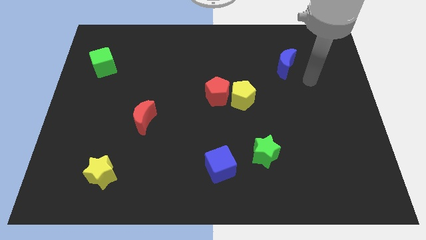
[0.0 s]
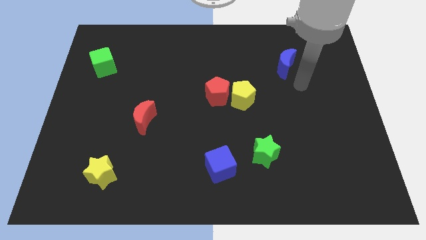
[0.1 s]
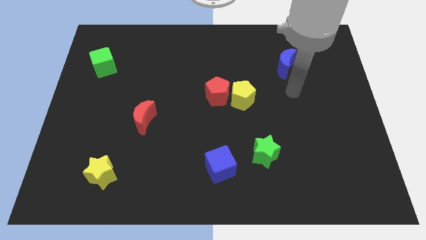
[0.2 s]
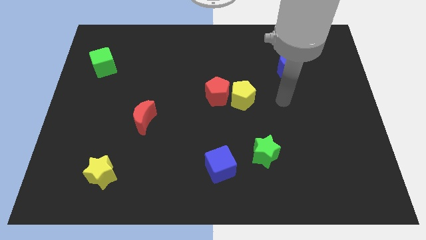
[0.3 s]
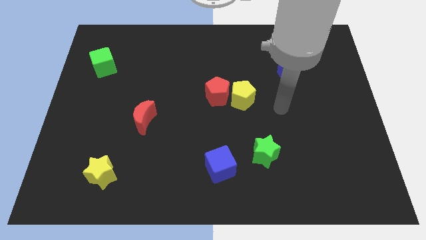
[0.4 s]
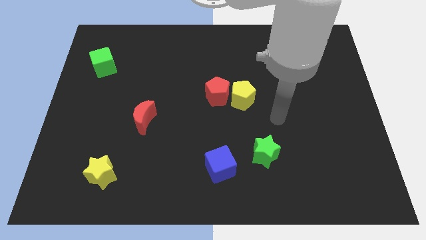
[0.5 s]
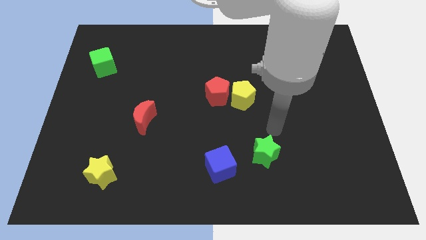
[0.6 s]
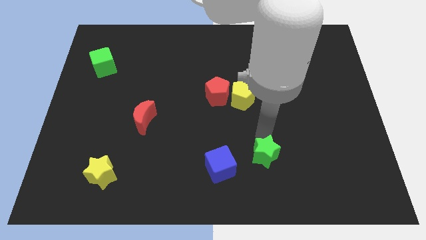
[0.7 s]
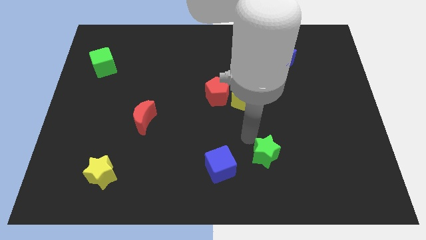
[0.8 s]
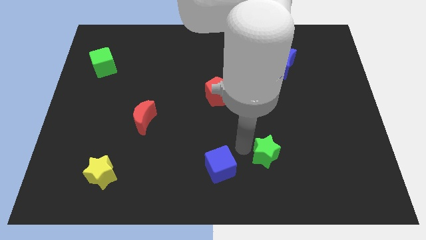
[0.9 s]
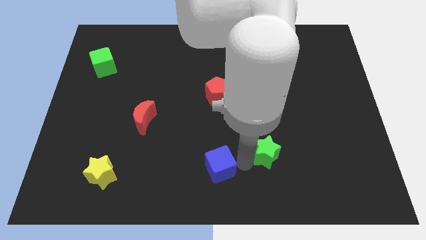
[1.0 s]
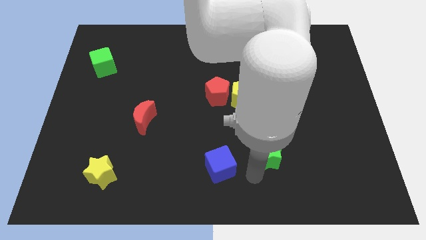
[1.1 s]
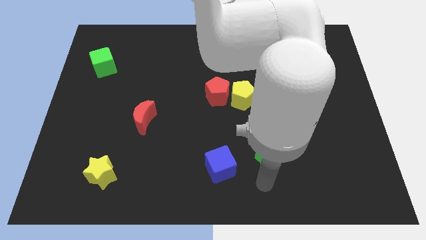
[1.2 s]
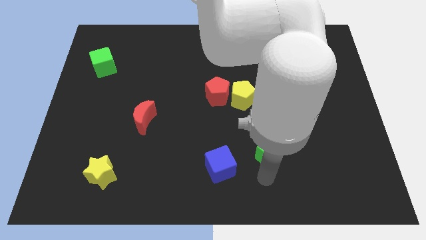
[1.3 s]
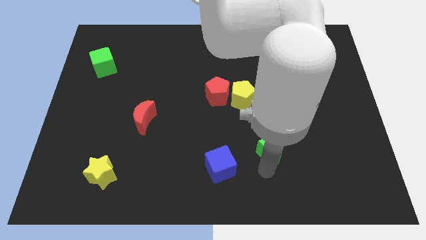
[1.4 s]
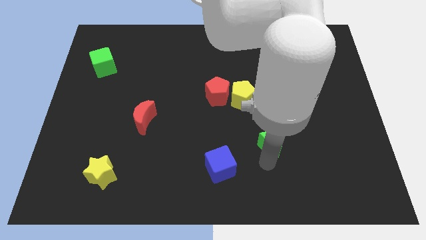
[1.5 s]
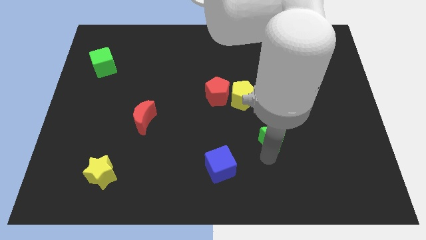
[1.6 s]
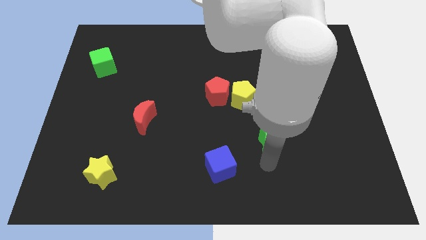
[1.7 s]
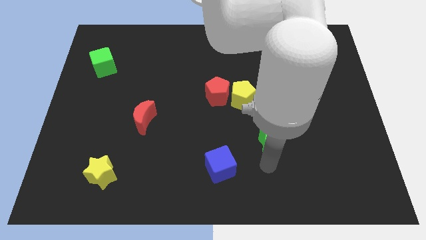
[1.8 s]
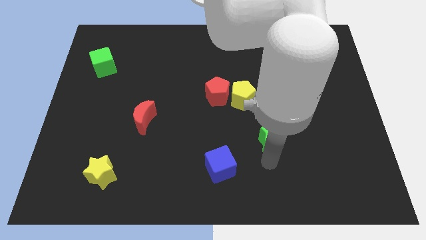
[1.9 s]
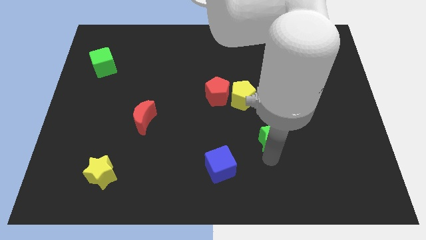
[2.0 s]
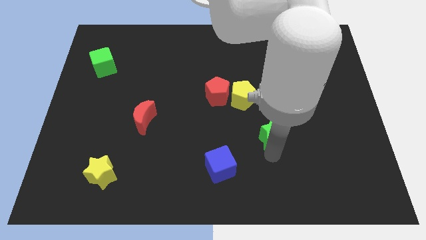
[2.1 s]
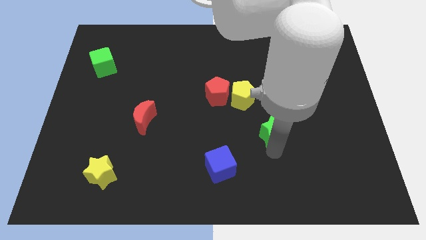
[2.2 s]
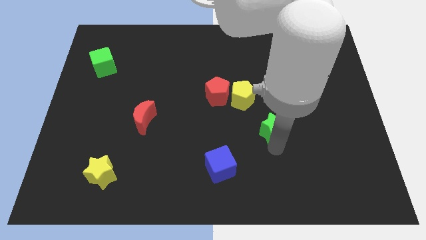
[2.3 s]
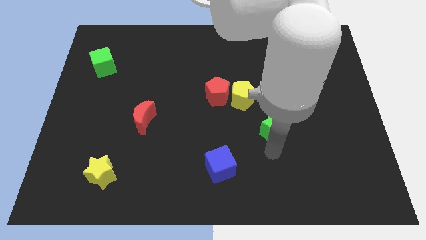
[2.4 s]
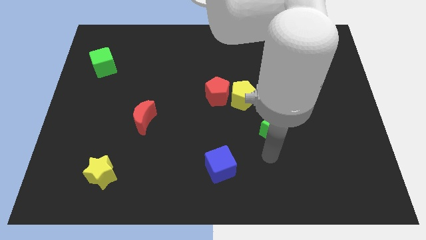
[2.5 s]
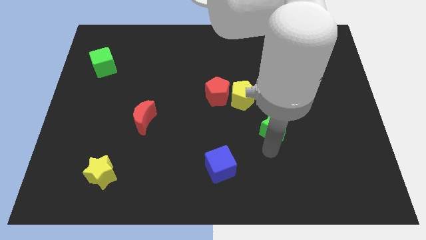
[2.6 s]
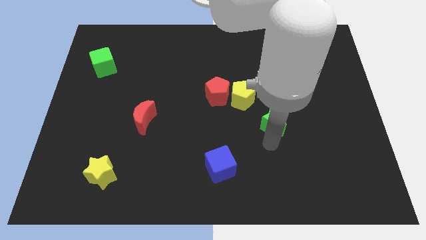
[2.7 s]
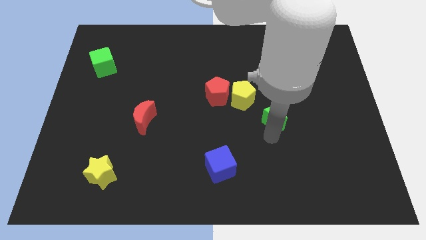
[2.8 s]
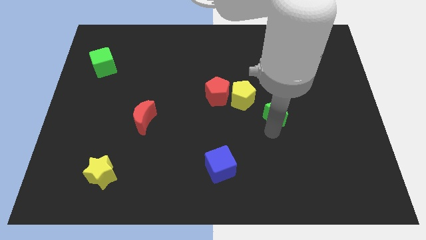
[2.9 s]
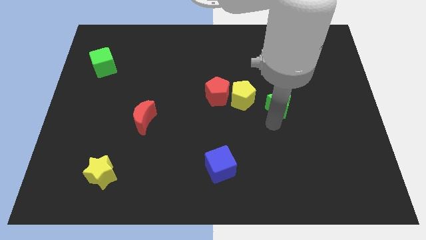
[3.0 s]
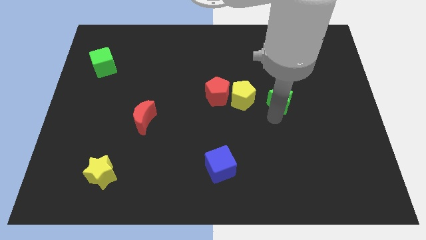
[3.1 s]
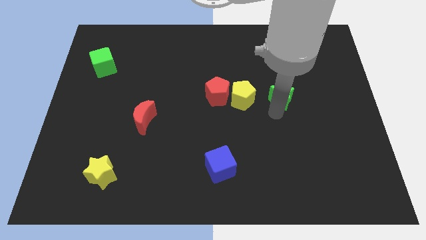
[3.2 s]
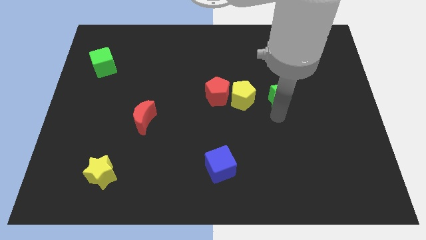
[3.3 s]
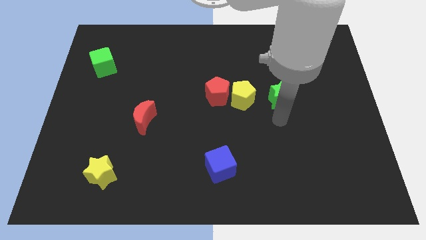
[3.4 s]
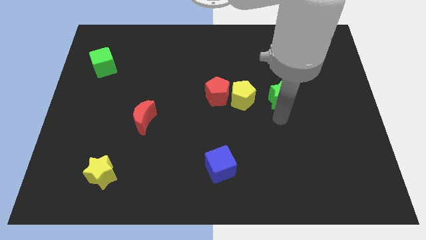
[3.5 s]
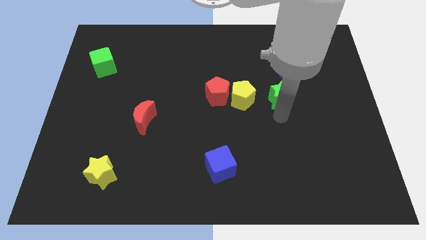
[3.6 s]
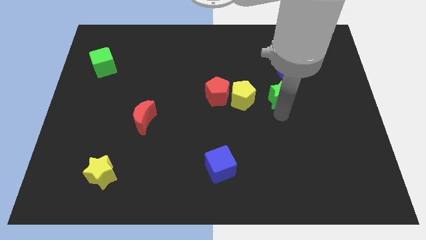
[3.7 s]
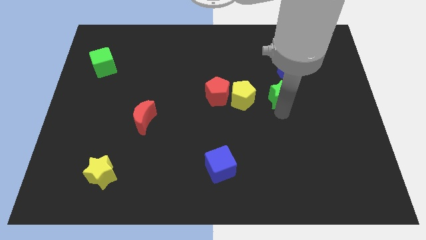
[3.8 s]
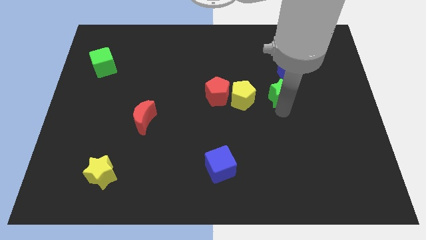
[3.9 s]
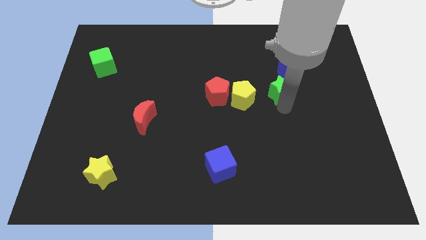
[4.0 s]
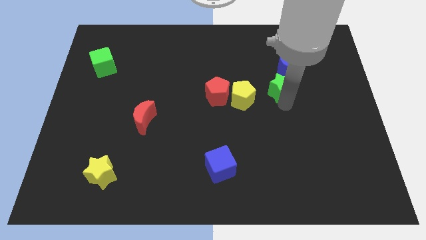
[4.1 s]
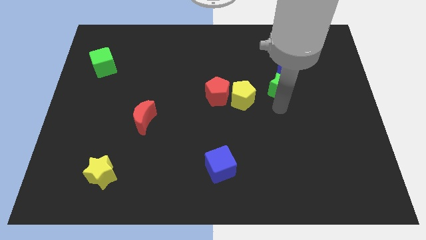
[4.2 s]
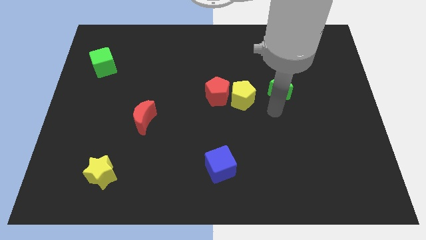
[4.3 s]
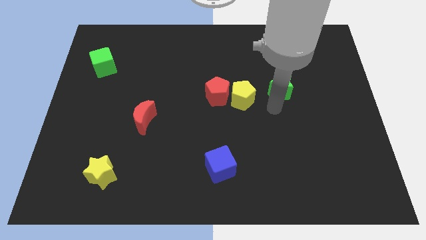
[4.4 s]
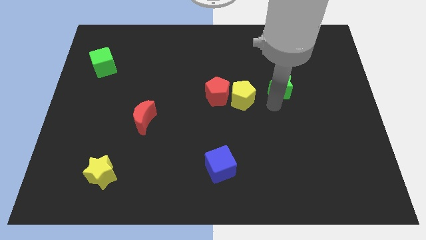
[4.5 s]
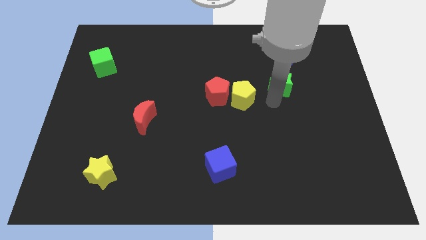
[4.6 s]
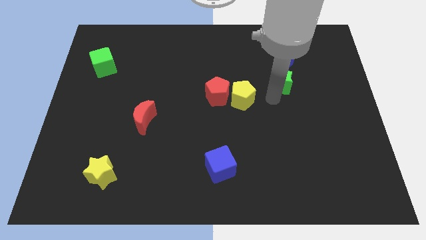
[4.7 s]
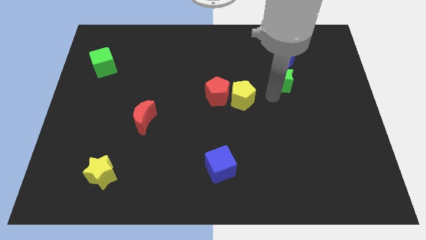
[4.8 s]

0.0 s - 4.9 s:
push the green star close to the blue moon

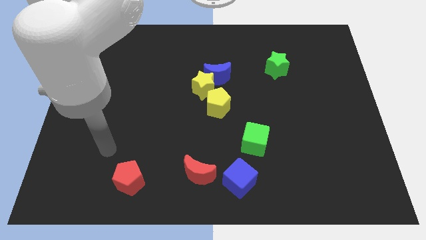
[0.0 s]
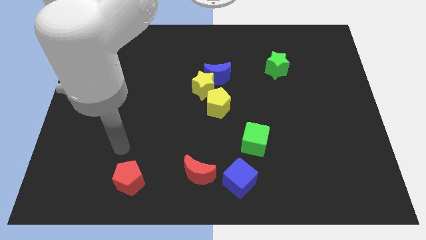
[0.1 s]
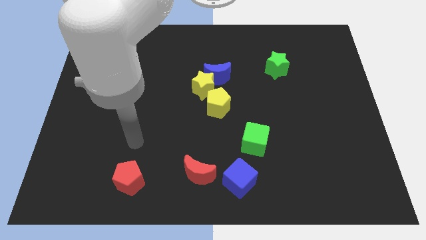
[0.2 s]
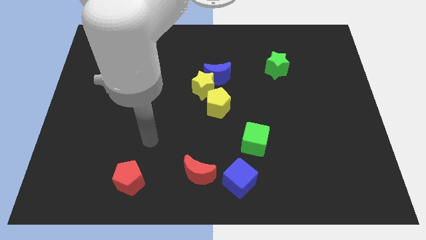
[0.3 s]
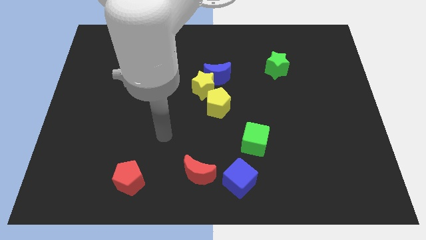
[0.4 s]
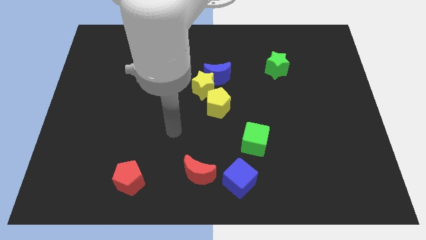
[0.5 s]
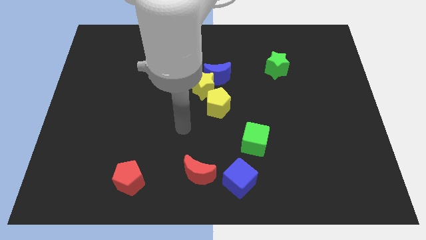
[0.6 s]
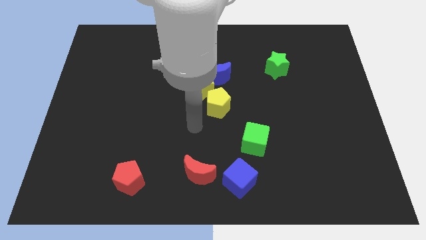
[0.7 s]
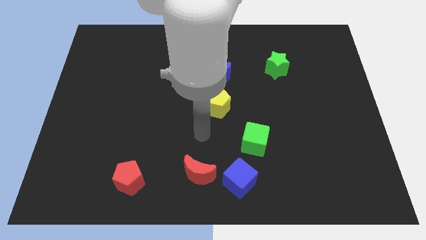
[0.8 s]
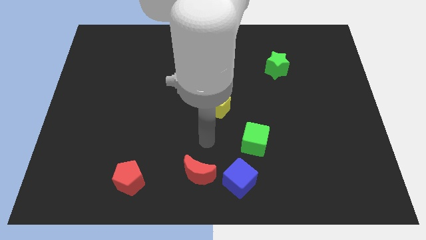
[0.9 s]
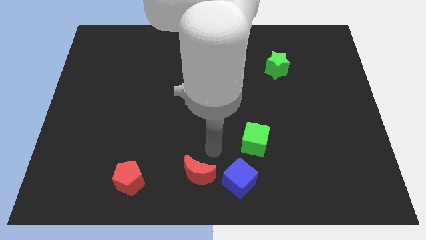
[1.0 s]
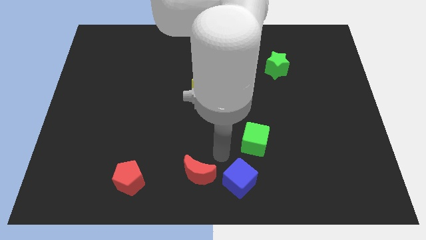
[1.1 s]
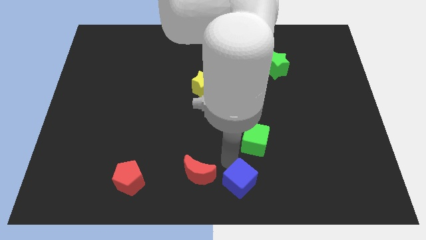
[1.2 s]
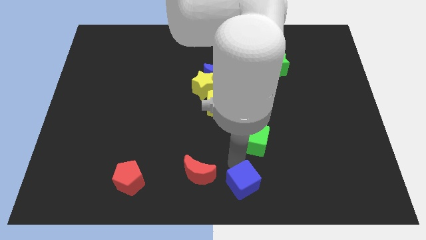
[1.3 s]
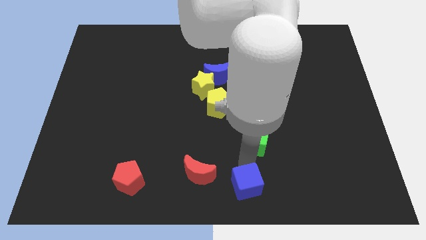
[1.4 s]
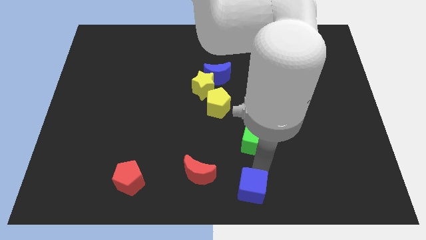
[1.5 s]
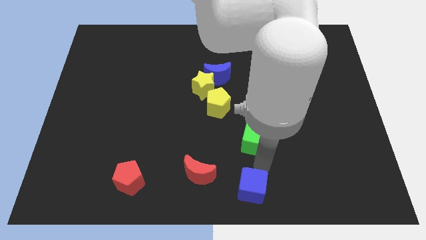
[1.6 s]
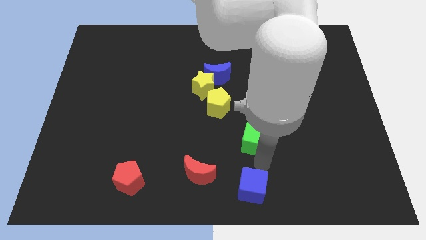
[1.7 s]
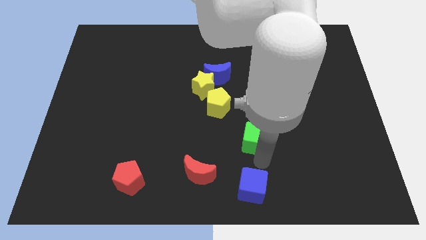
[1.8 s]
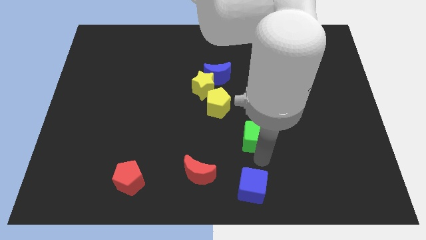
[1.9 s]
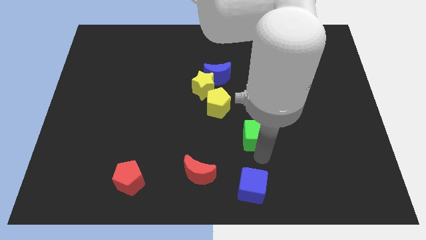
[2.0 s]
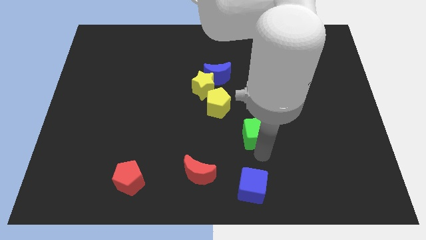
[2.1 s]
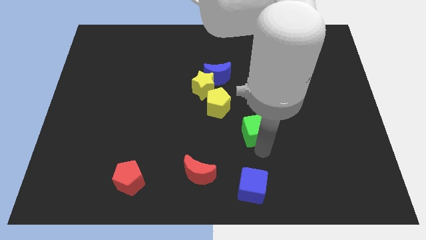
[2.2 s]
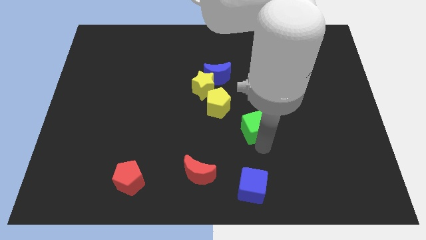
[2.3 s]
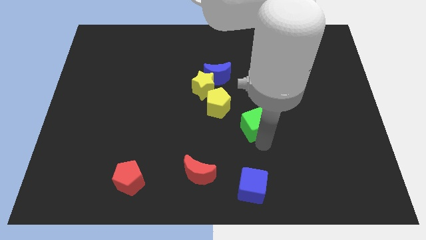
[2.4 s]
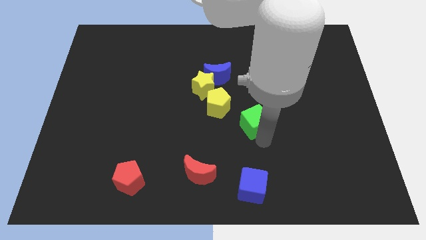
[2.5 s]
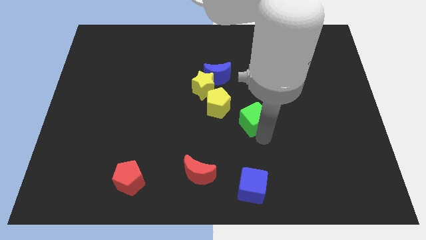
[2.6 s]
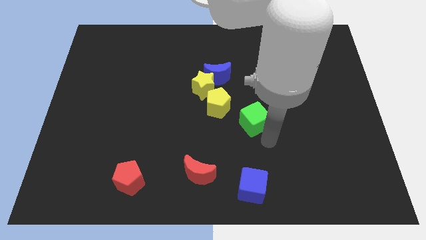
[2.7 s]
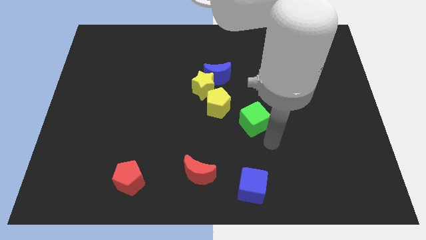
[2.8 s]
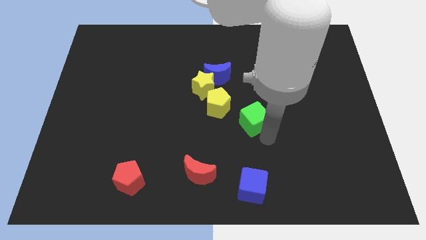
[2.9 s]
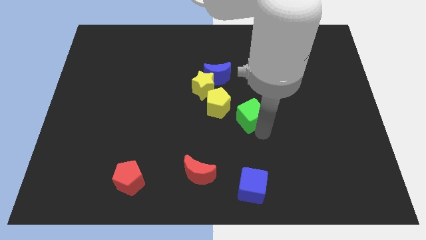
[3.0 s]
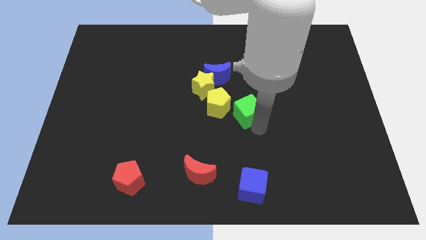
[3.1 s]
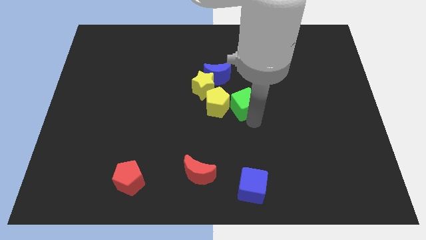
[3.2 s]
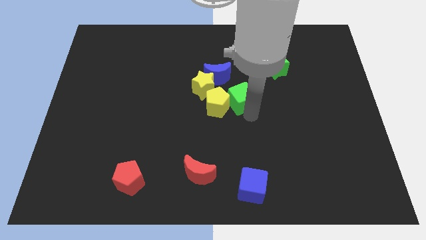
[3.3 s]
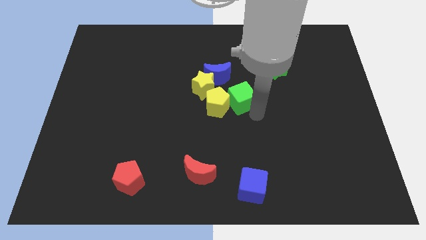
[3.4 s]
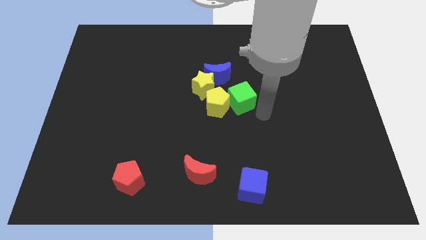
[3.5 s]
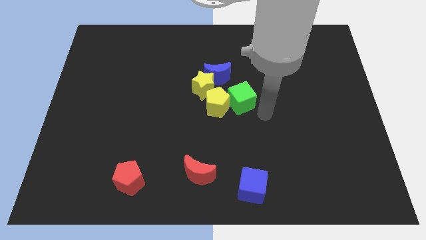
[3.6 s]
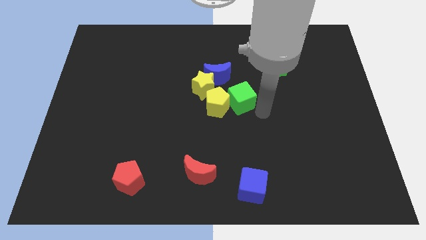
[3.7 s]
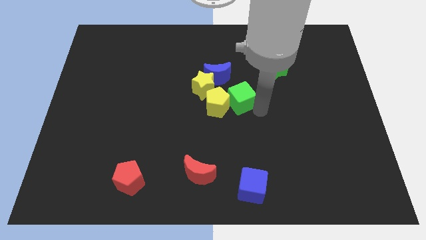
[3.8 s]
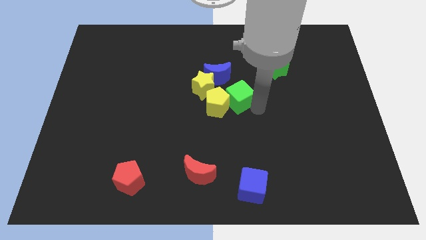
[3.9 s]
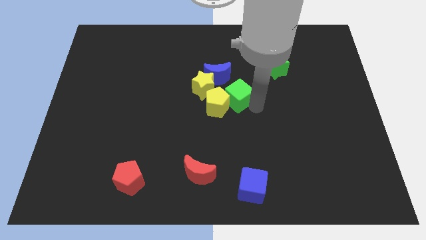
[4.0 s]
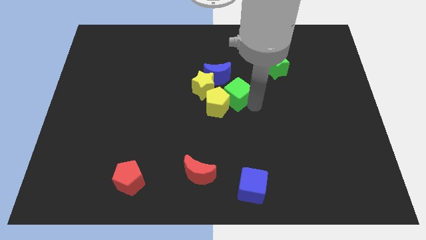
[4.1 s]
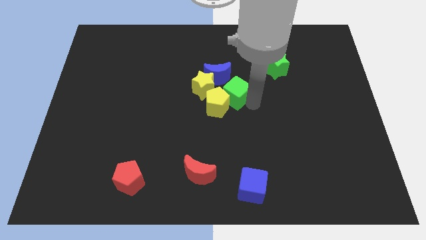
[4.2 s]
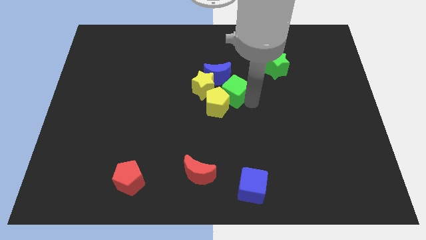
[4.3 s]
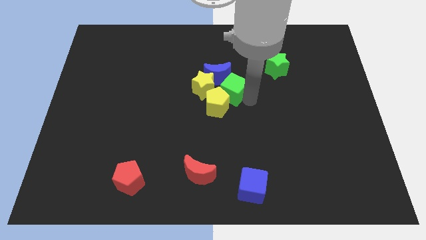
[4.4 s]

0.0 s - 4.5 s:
move the green cube towards the blue moon
